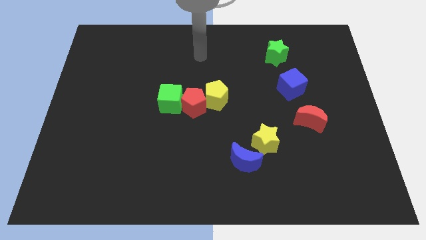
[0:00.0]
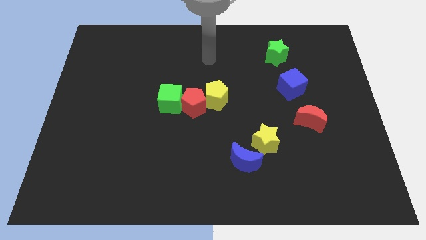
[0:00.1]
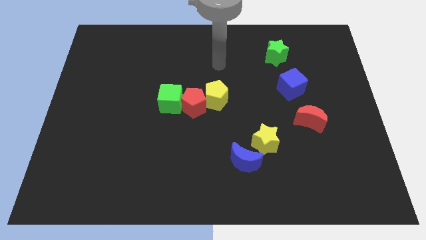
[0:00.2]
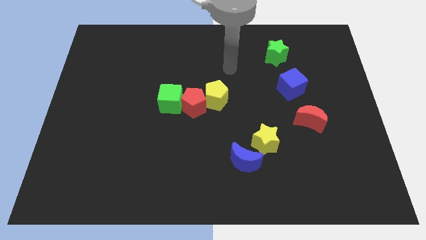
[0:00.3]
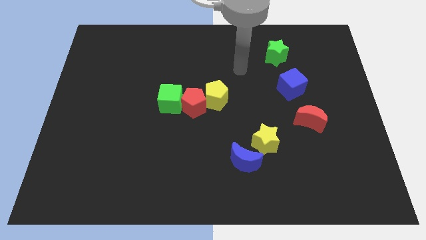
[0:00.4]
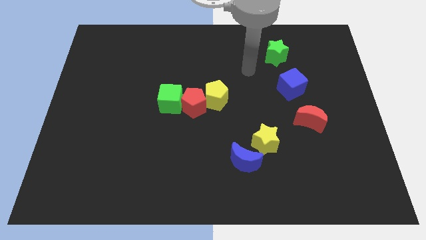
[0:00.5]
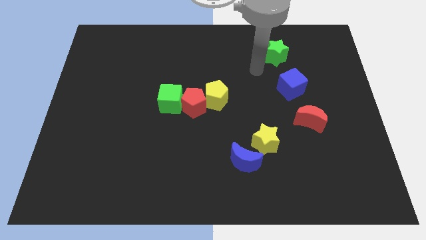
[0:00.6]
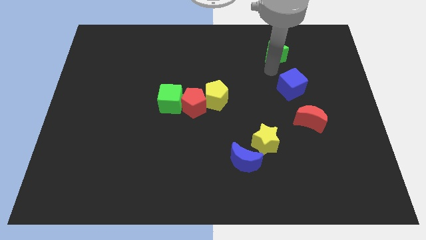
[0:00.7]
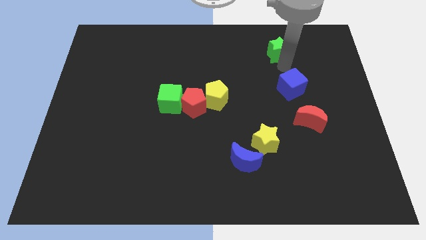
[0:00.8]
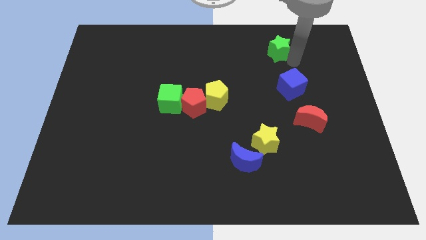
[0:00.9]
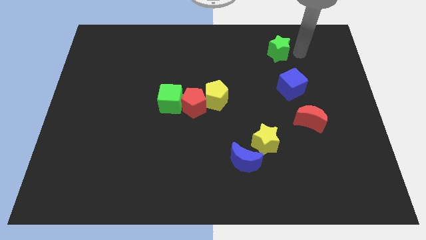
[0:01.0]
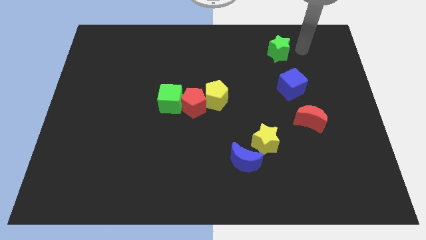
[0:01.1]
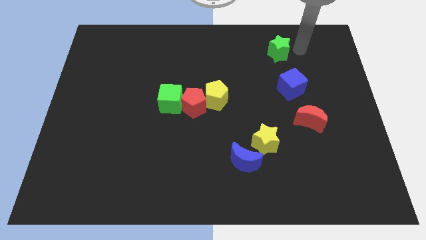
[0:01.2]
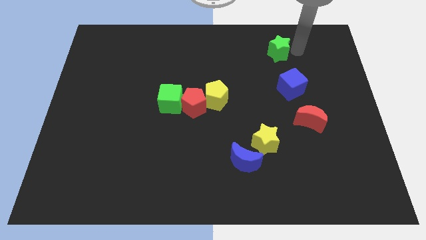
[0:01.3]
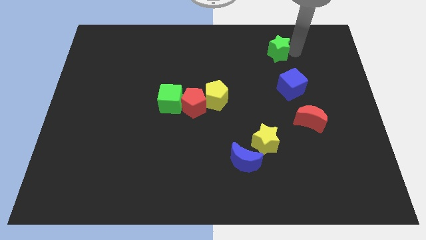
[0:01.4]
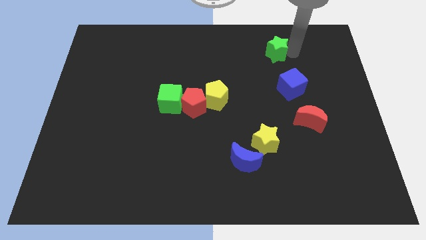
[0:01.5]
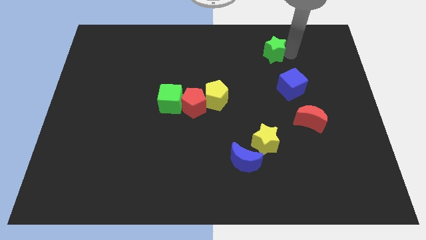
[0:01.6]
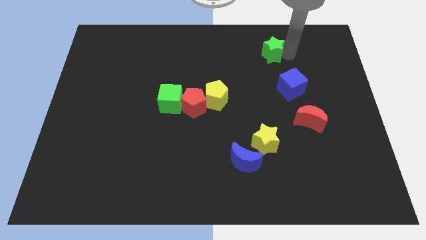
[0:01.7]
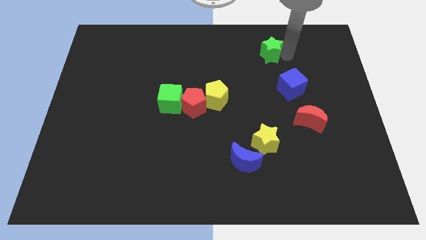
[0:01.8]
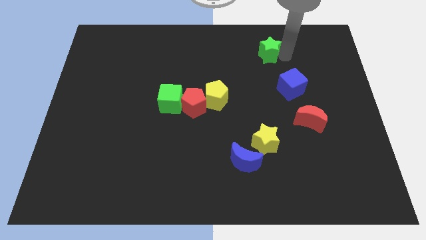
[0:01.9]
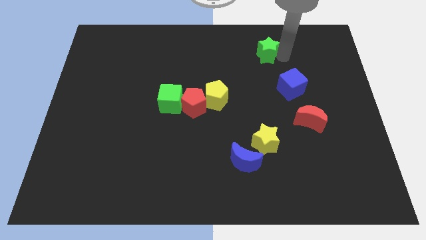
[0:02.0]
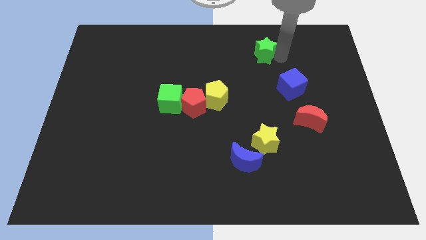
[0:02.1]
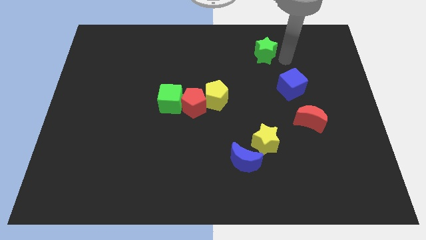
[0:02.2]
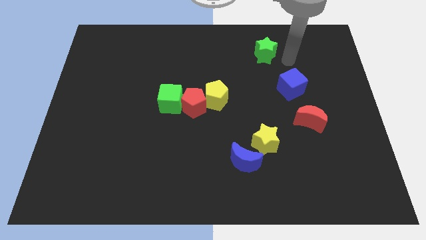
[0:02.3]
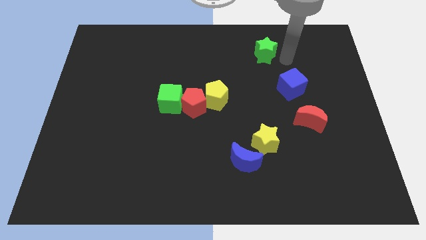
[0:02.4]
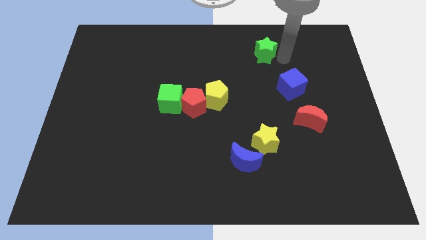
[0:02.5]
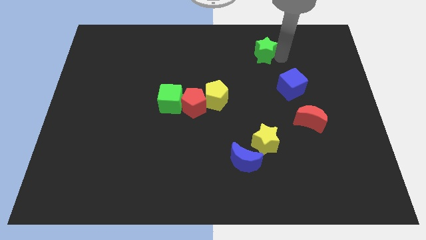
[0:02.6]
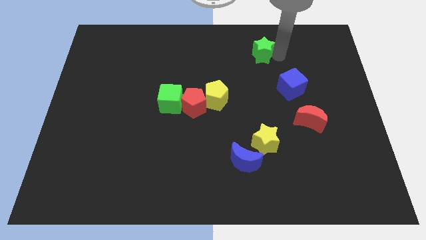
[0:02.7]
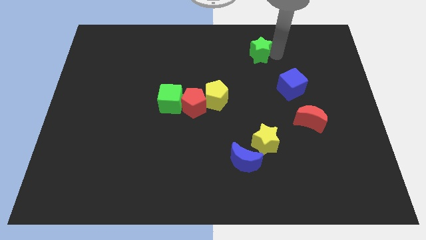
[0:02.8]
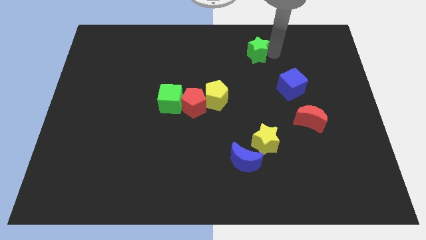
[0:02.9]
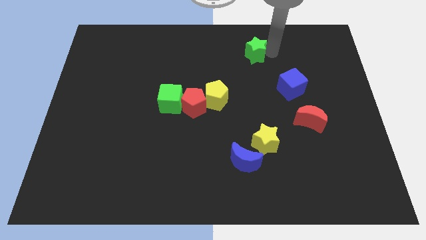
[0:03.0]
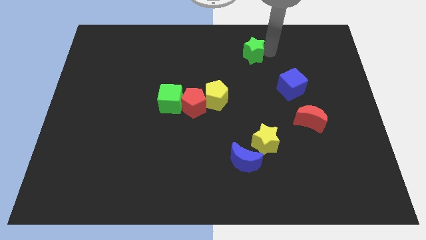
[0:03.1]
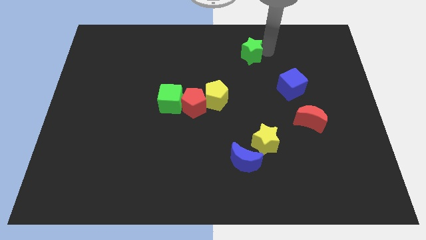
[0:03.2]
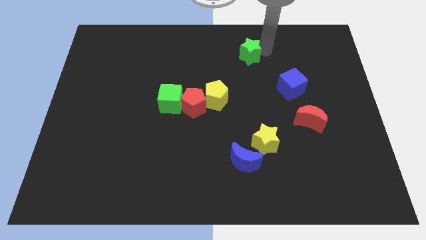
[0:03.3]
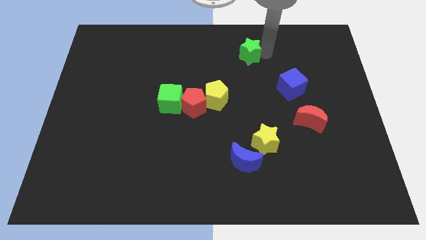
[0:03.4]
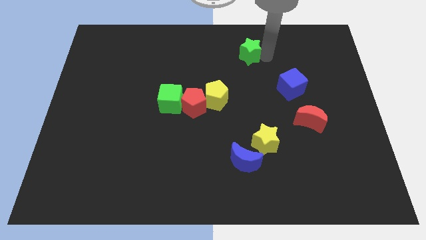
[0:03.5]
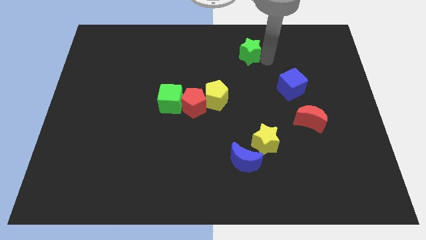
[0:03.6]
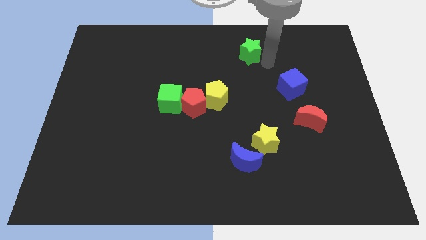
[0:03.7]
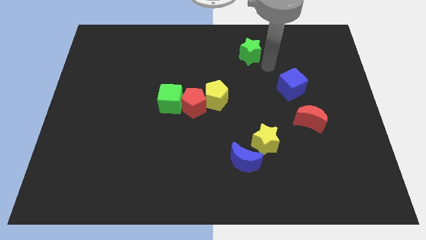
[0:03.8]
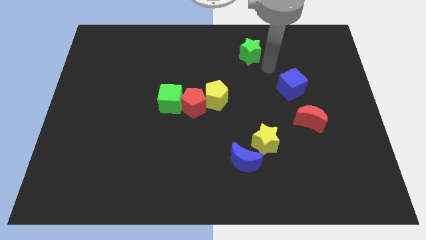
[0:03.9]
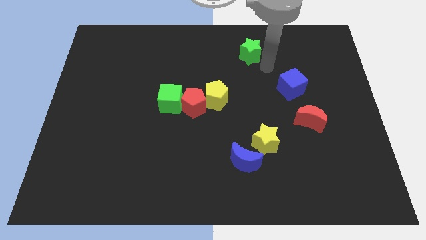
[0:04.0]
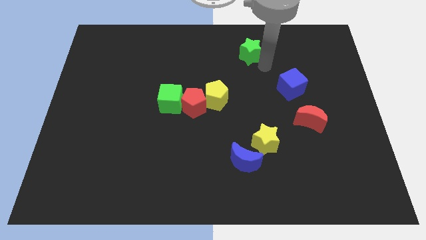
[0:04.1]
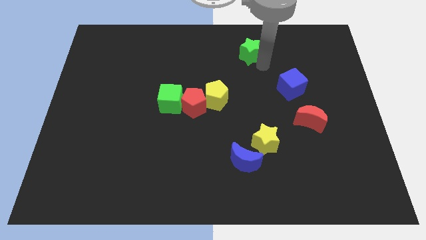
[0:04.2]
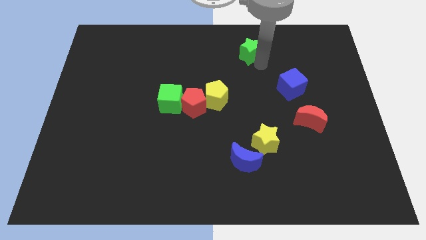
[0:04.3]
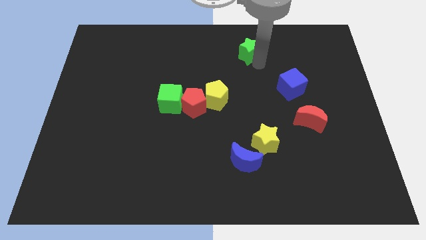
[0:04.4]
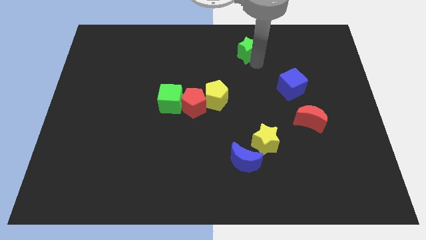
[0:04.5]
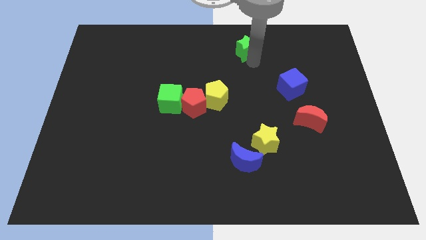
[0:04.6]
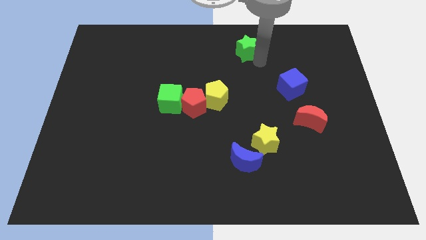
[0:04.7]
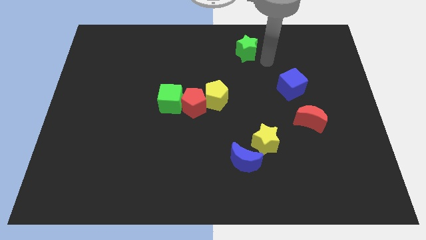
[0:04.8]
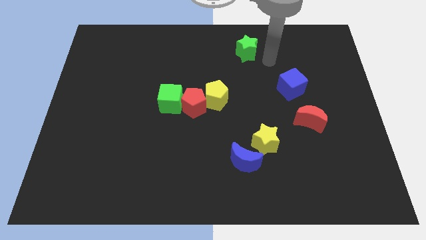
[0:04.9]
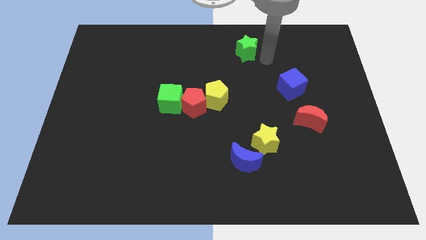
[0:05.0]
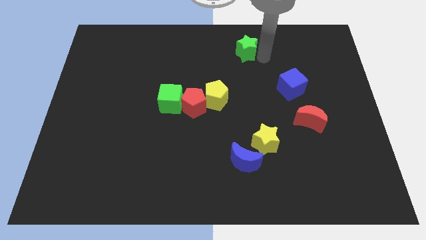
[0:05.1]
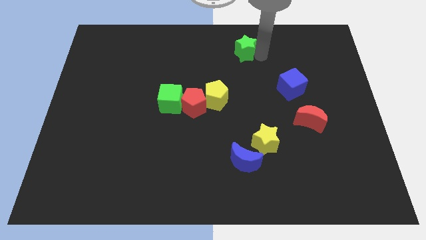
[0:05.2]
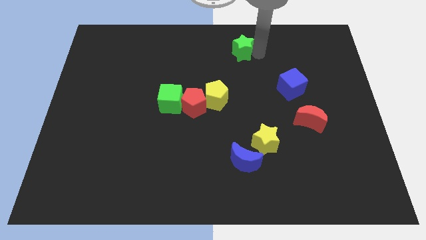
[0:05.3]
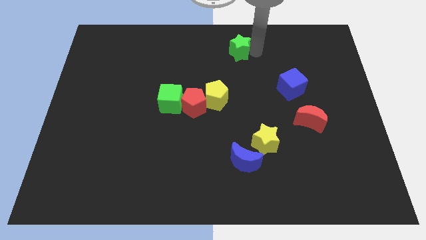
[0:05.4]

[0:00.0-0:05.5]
put the green star to the top side

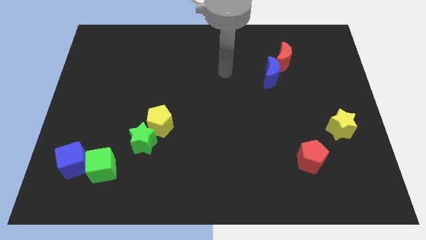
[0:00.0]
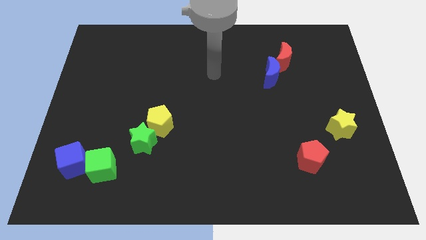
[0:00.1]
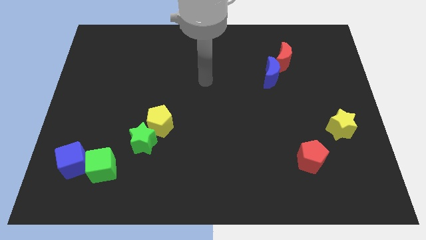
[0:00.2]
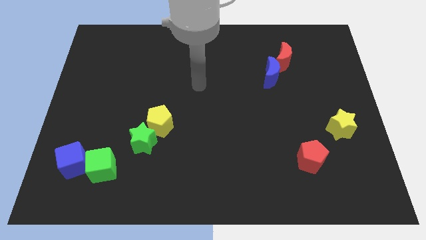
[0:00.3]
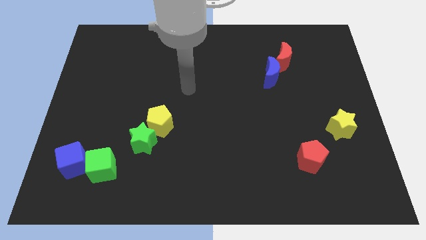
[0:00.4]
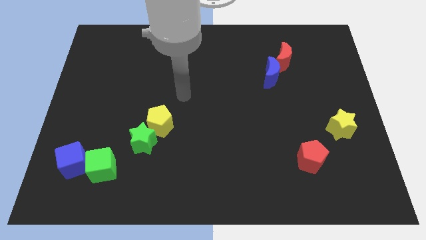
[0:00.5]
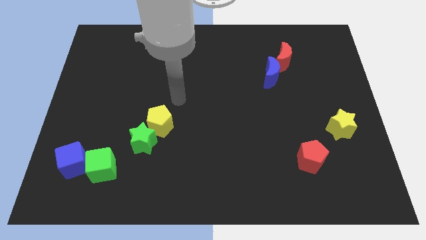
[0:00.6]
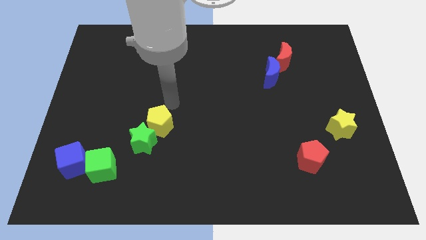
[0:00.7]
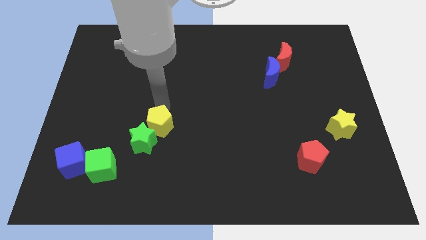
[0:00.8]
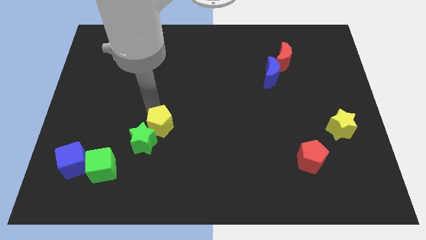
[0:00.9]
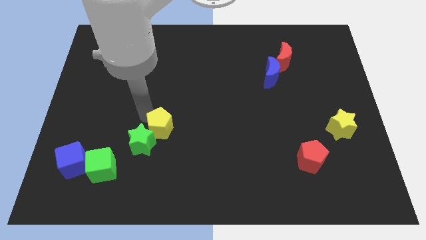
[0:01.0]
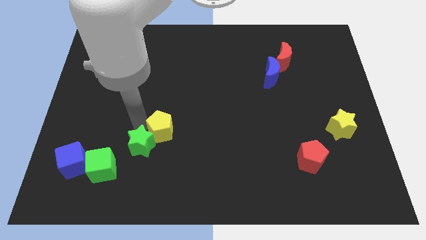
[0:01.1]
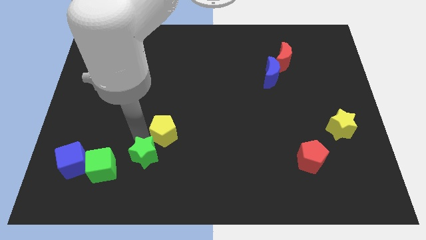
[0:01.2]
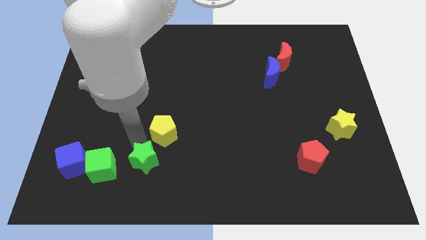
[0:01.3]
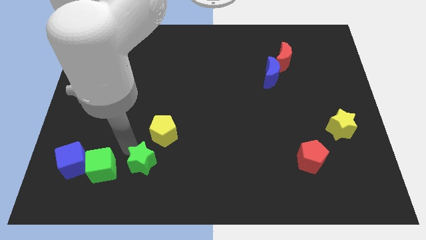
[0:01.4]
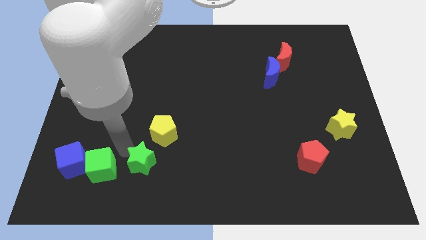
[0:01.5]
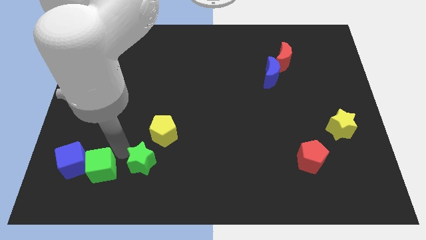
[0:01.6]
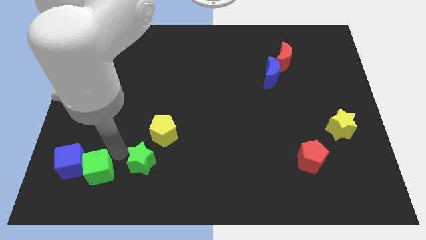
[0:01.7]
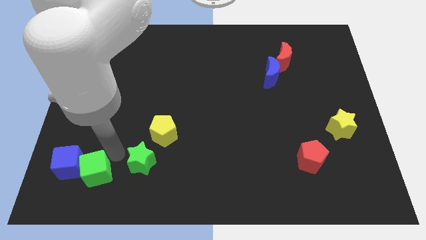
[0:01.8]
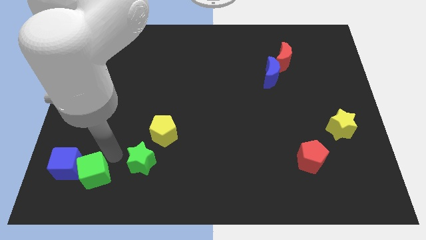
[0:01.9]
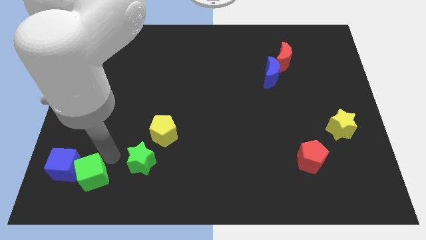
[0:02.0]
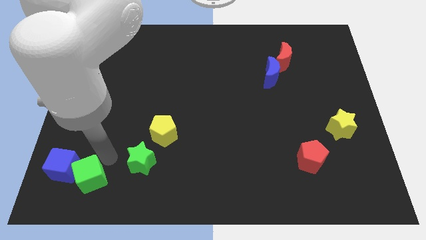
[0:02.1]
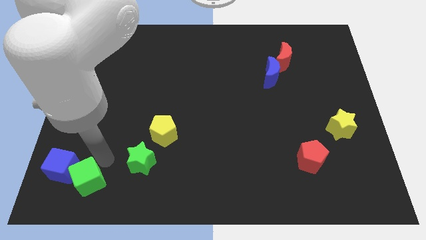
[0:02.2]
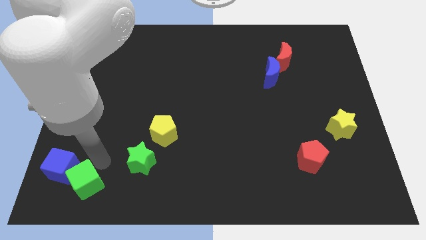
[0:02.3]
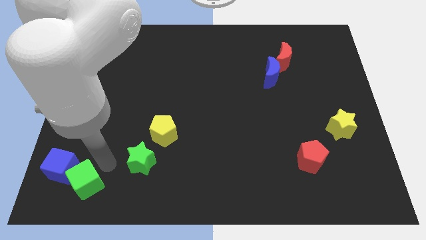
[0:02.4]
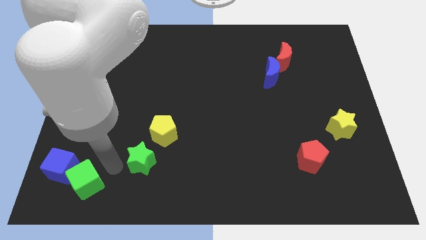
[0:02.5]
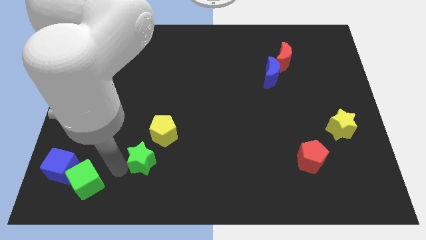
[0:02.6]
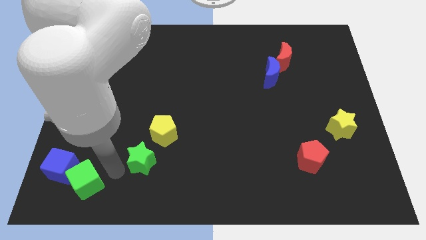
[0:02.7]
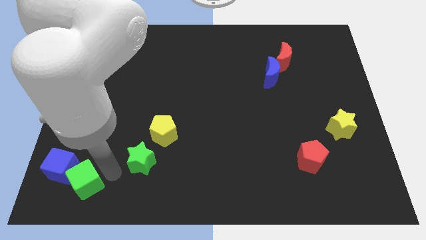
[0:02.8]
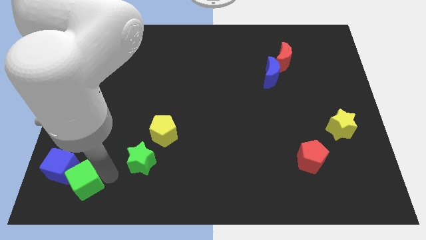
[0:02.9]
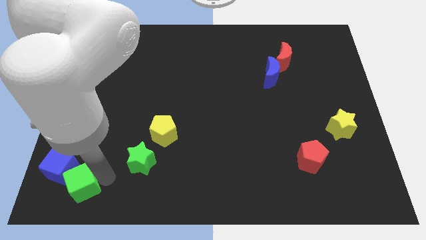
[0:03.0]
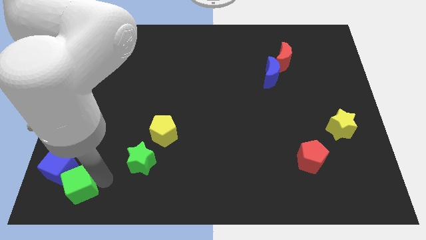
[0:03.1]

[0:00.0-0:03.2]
put the green cube to the bottom left
